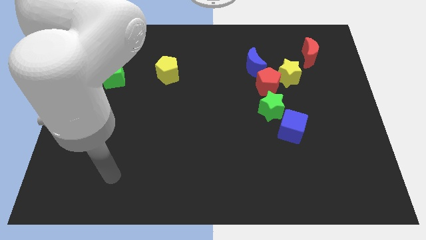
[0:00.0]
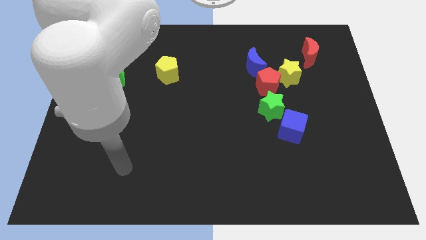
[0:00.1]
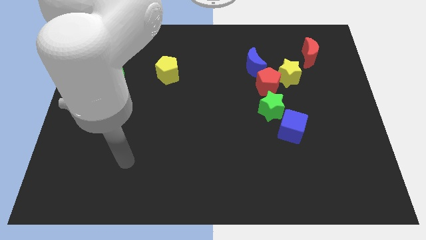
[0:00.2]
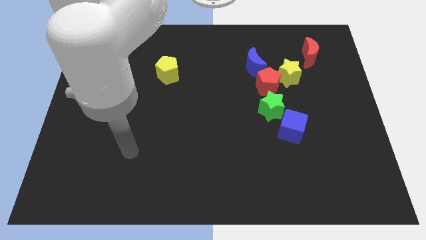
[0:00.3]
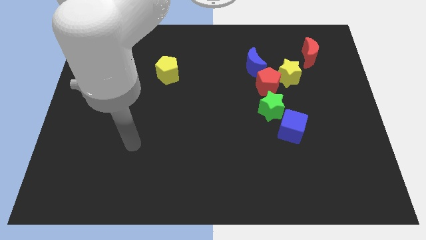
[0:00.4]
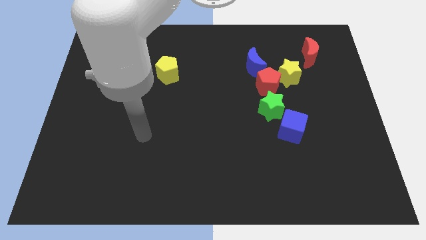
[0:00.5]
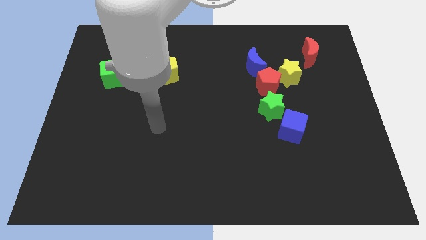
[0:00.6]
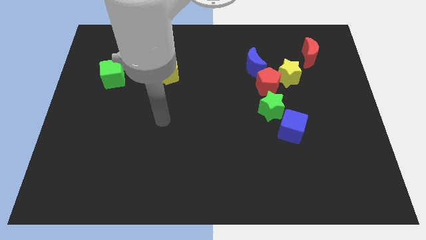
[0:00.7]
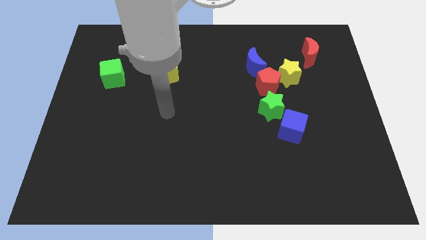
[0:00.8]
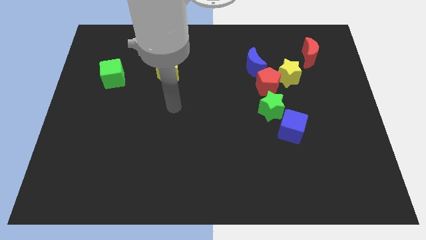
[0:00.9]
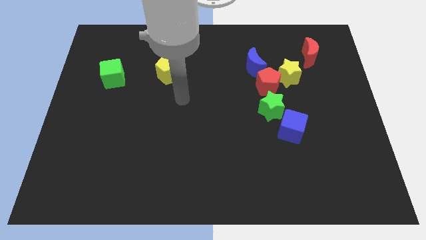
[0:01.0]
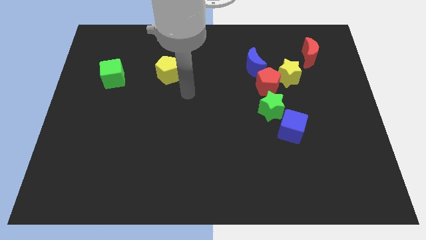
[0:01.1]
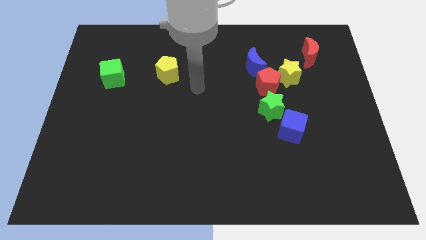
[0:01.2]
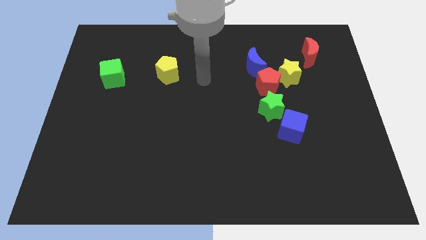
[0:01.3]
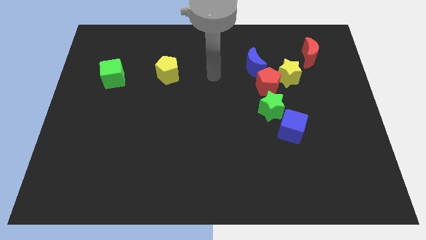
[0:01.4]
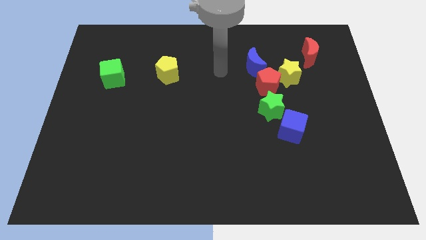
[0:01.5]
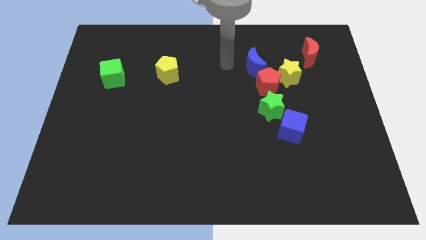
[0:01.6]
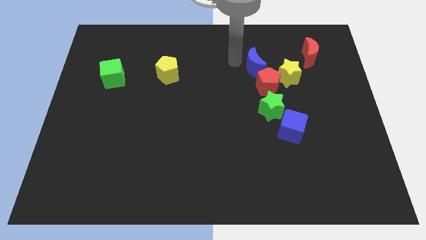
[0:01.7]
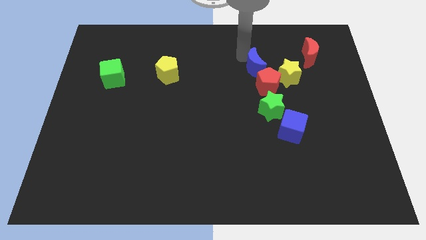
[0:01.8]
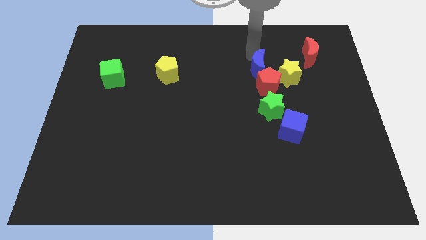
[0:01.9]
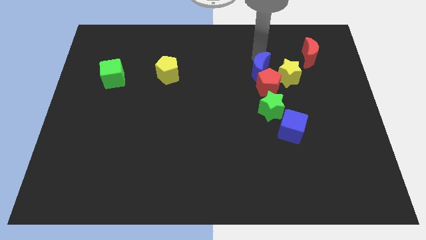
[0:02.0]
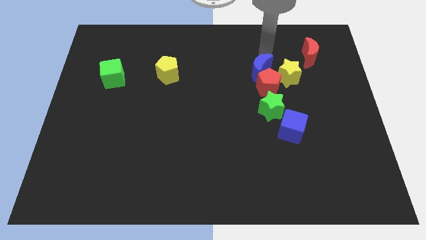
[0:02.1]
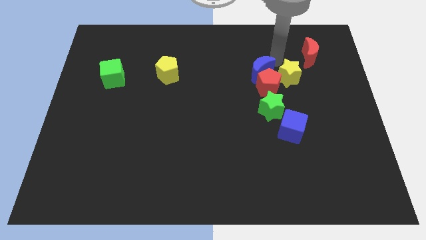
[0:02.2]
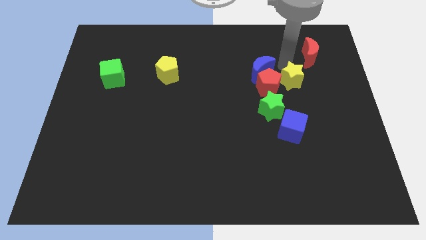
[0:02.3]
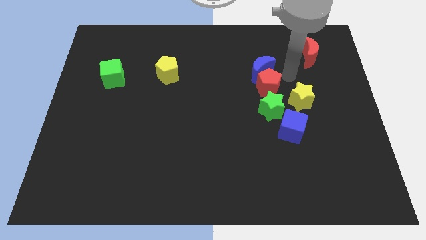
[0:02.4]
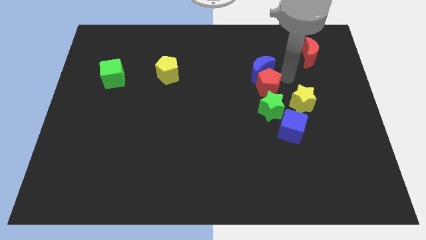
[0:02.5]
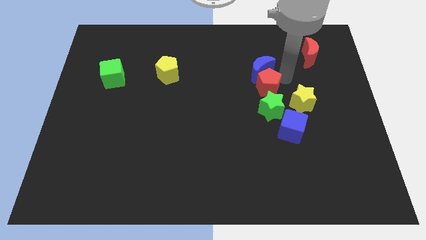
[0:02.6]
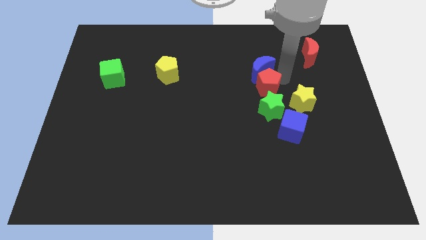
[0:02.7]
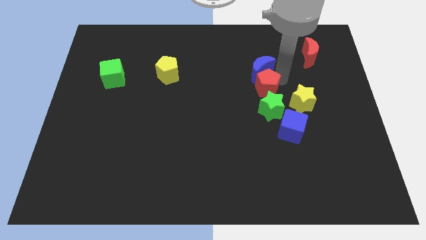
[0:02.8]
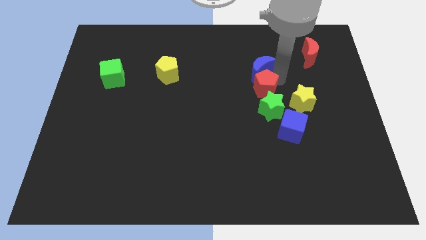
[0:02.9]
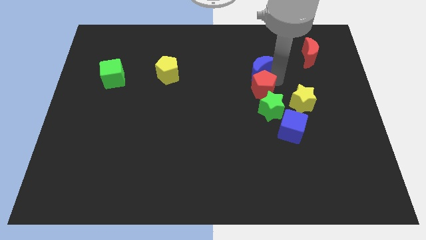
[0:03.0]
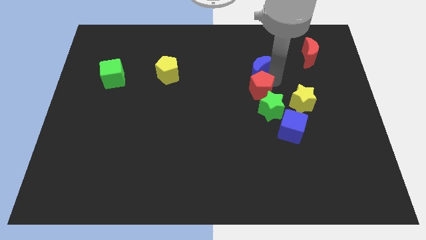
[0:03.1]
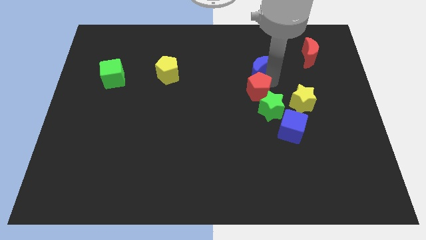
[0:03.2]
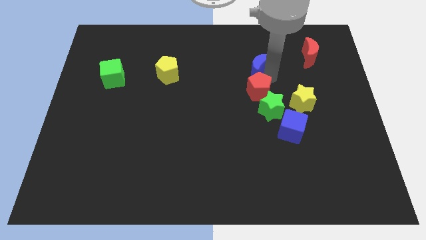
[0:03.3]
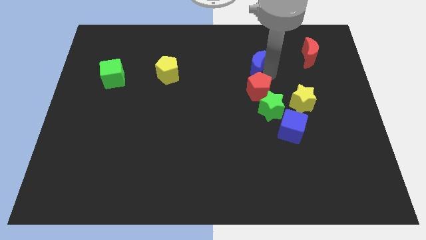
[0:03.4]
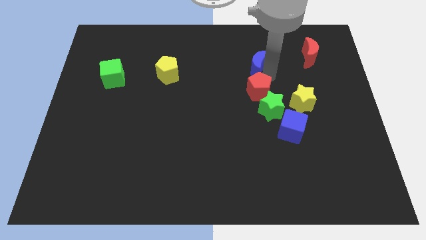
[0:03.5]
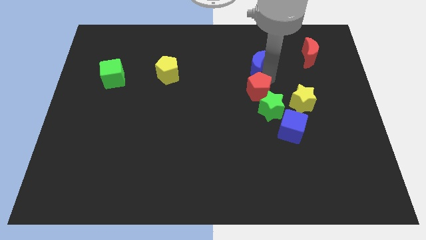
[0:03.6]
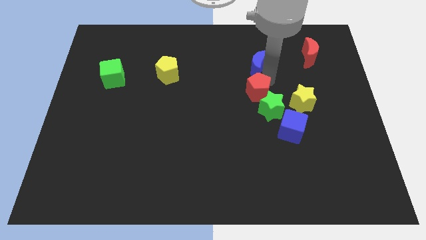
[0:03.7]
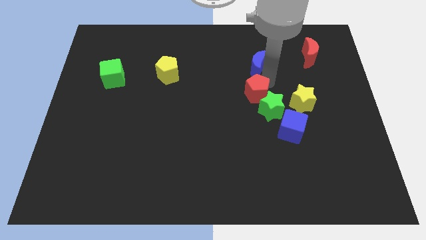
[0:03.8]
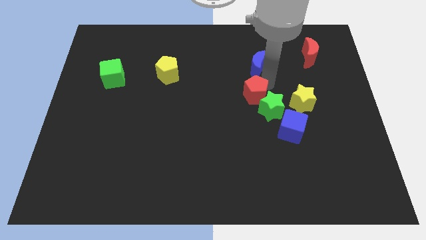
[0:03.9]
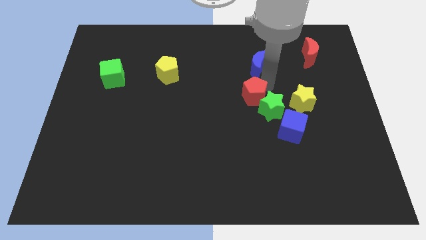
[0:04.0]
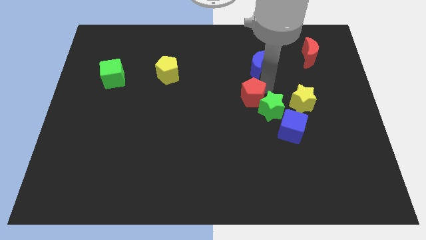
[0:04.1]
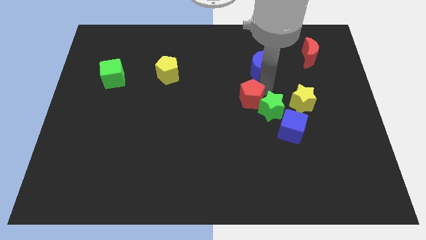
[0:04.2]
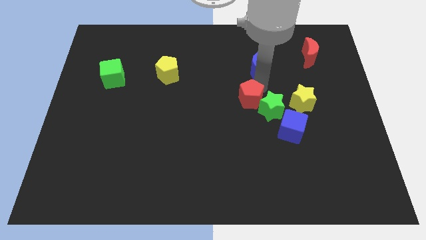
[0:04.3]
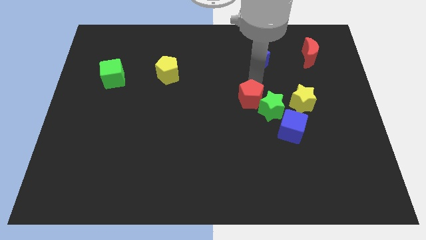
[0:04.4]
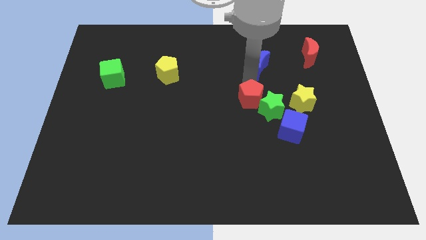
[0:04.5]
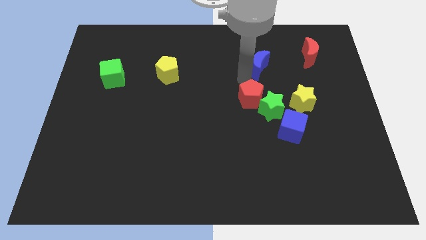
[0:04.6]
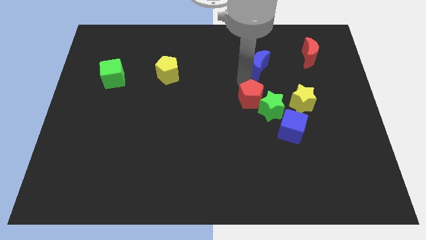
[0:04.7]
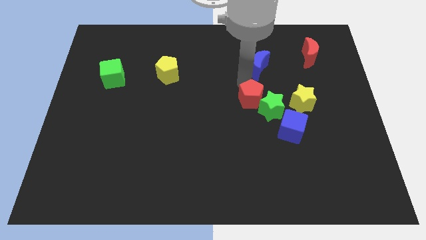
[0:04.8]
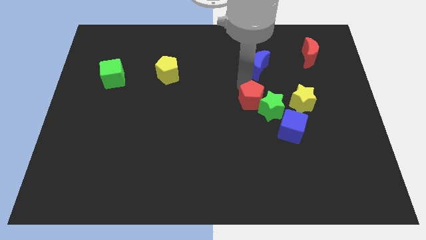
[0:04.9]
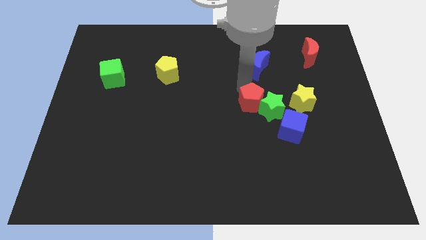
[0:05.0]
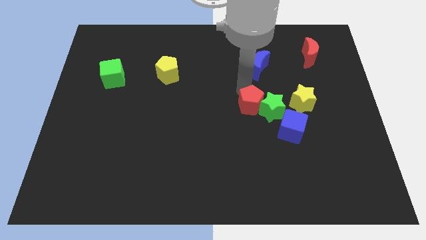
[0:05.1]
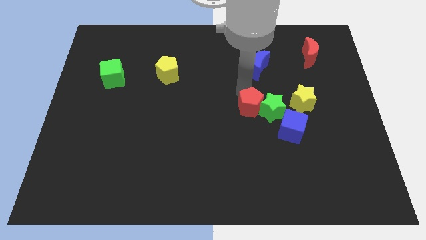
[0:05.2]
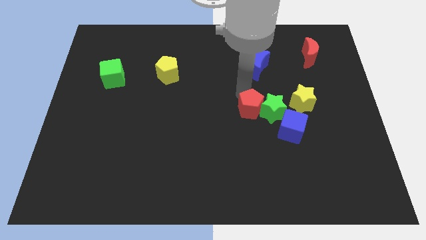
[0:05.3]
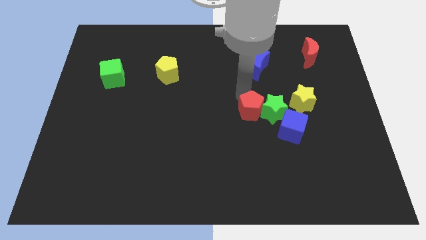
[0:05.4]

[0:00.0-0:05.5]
slightly push the red pentagon downwards

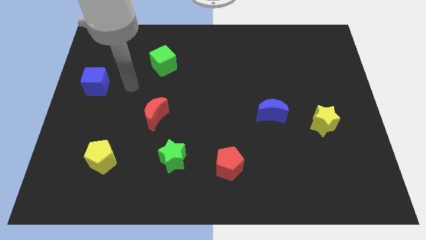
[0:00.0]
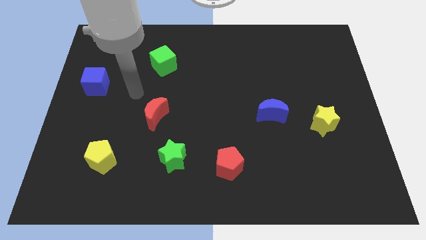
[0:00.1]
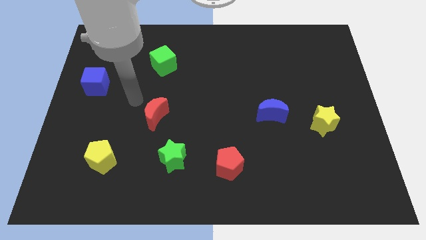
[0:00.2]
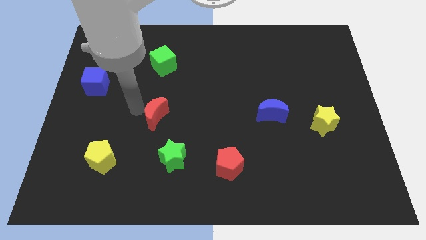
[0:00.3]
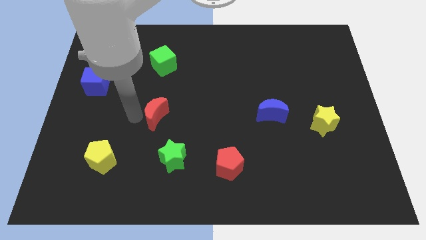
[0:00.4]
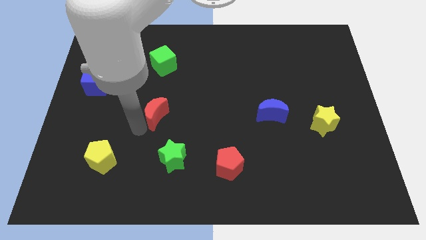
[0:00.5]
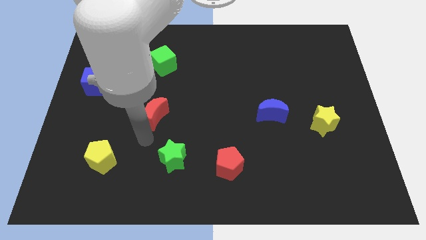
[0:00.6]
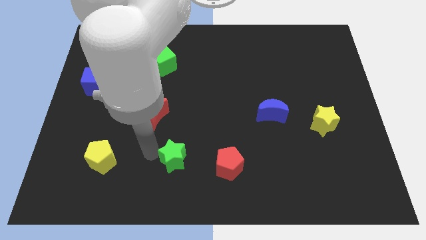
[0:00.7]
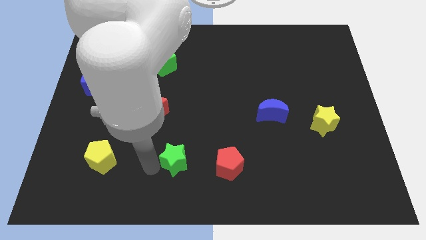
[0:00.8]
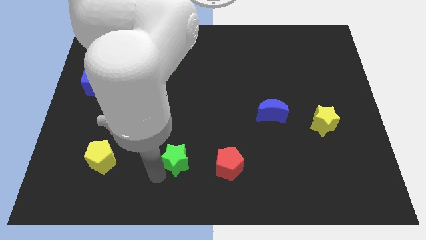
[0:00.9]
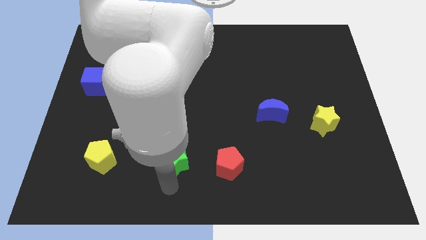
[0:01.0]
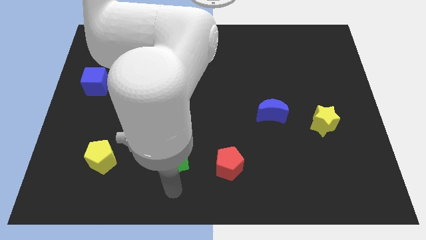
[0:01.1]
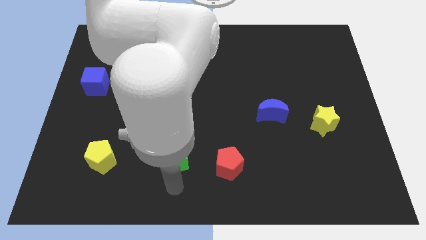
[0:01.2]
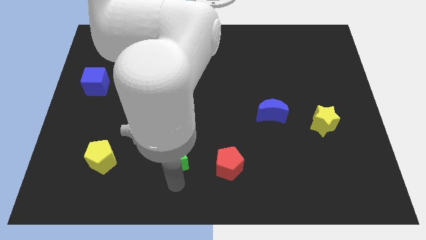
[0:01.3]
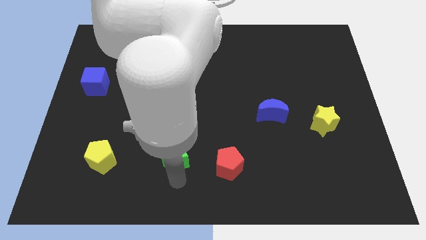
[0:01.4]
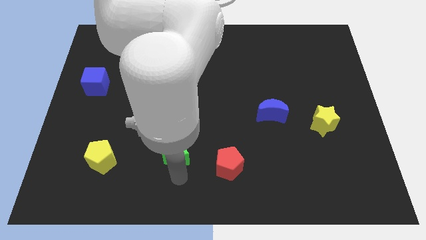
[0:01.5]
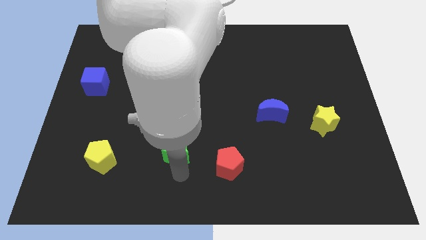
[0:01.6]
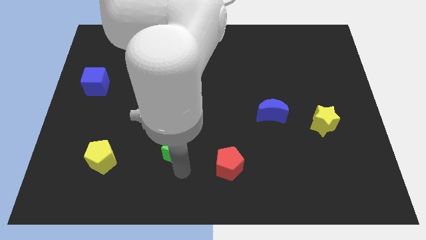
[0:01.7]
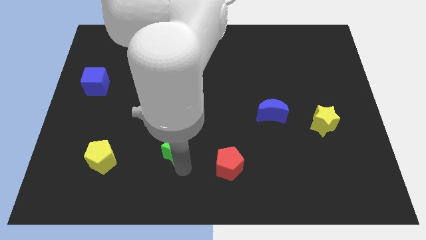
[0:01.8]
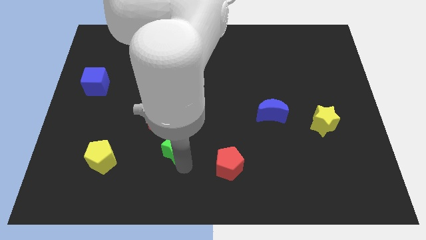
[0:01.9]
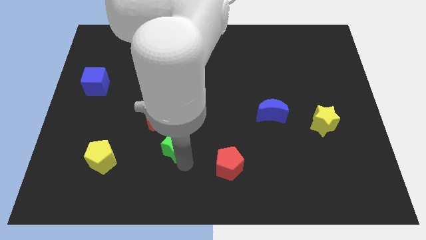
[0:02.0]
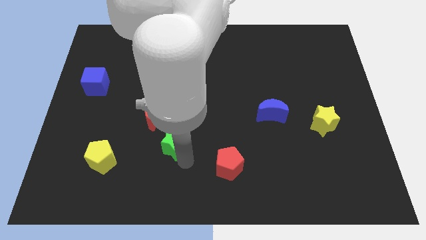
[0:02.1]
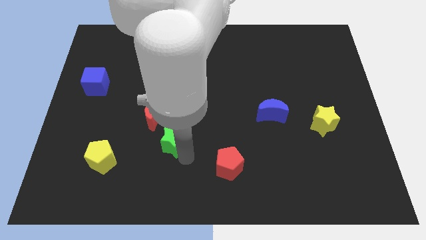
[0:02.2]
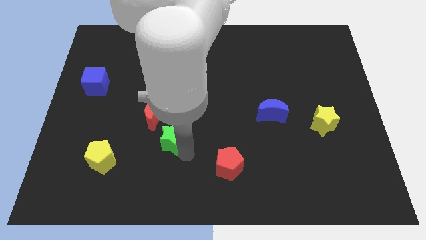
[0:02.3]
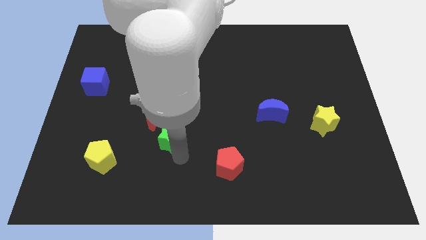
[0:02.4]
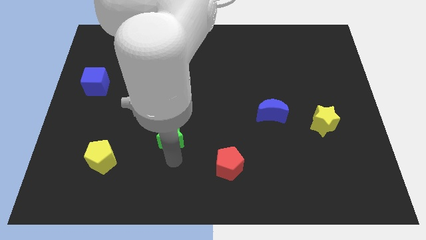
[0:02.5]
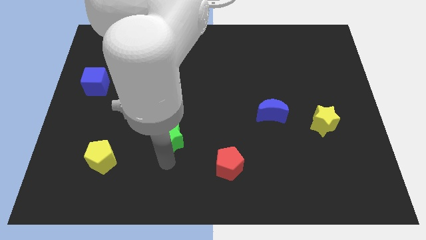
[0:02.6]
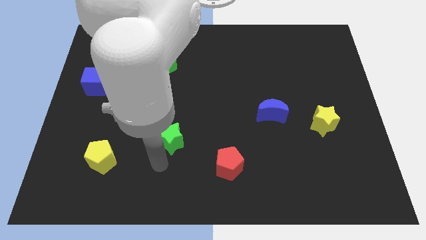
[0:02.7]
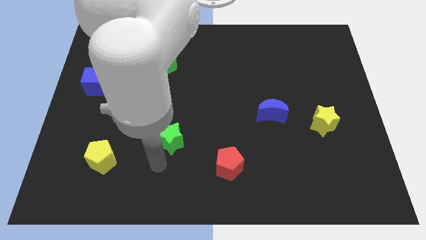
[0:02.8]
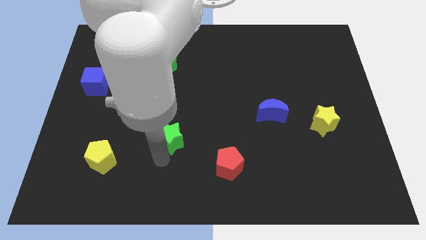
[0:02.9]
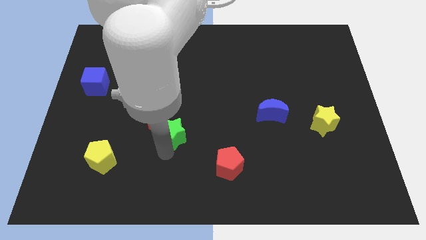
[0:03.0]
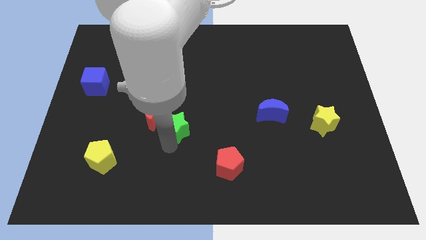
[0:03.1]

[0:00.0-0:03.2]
move the green star a bit upwards
